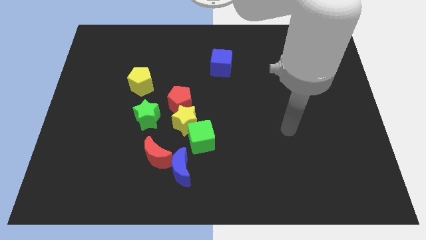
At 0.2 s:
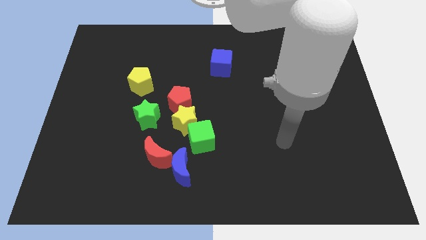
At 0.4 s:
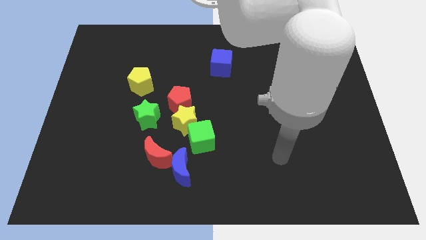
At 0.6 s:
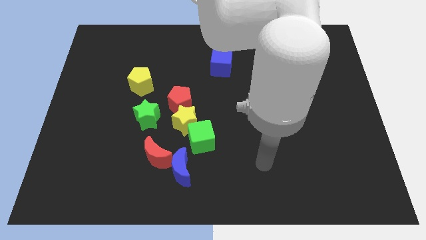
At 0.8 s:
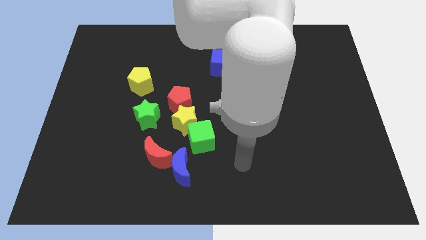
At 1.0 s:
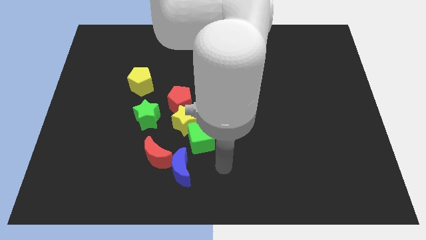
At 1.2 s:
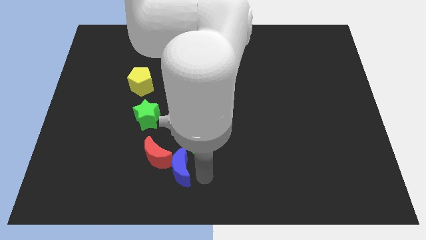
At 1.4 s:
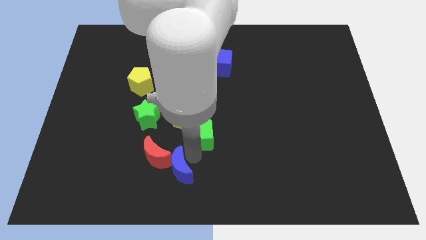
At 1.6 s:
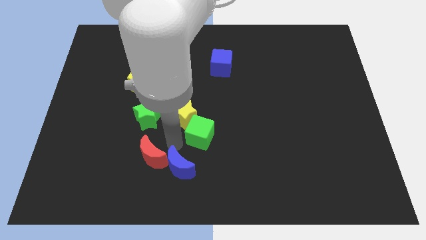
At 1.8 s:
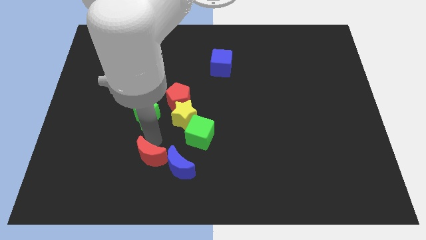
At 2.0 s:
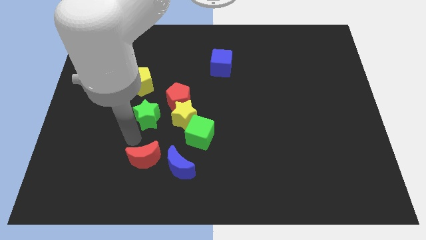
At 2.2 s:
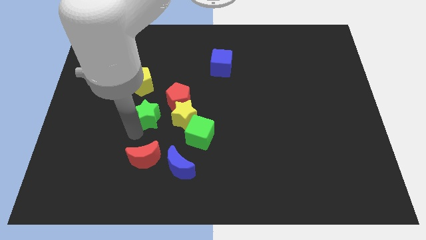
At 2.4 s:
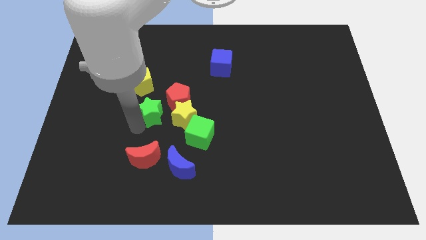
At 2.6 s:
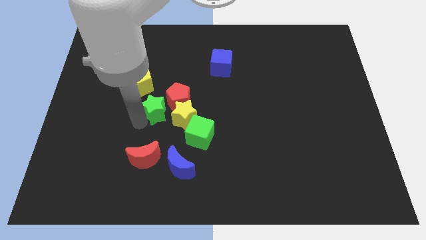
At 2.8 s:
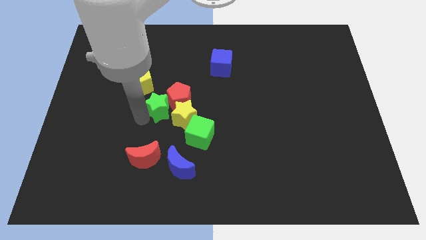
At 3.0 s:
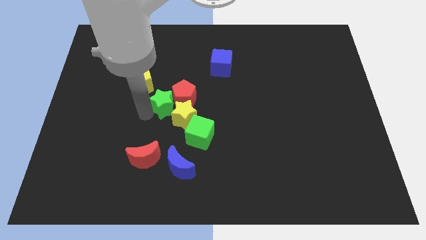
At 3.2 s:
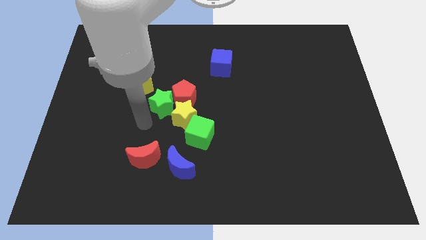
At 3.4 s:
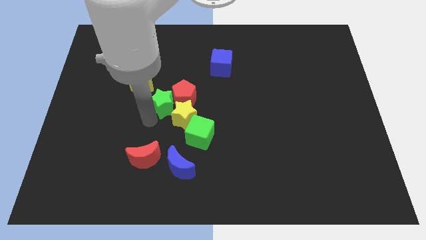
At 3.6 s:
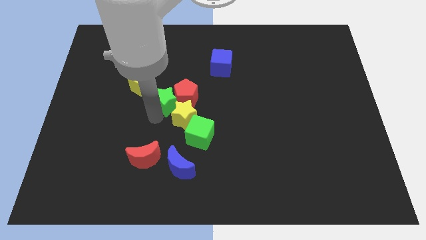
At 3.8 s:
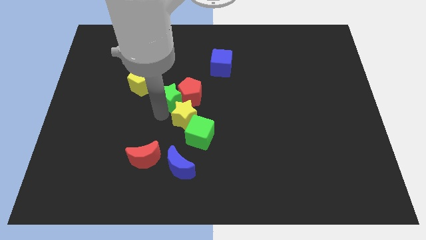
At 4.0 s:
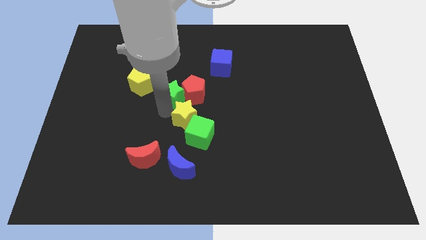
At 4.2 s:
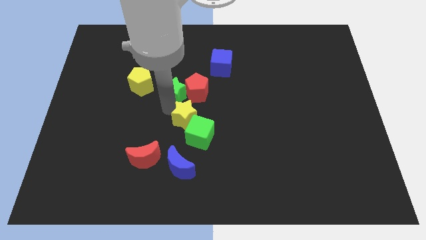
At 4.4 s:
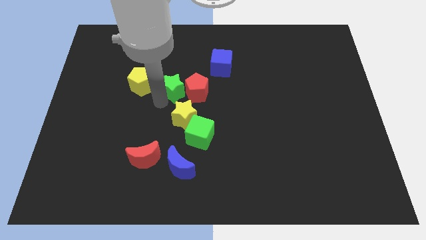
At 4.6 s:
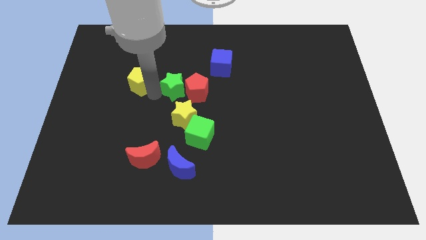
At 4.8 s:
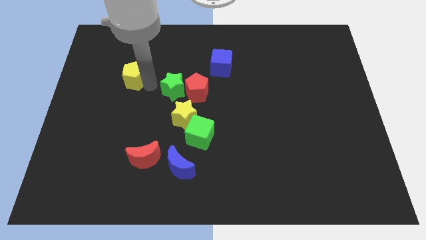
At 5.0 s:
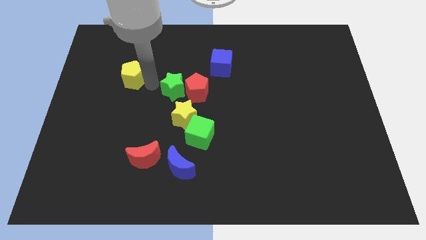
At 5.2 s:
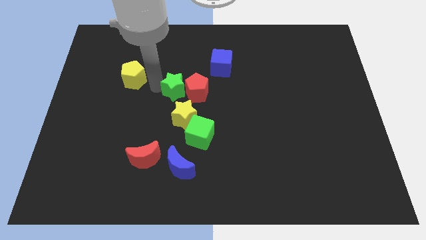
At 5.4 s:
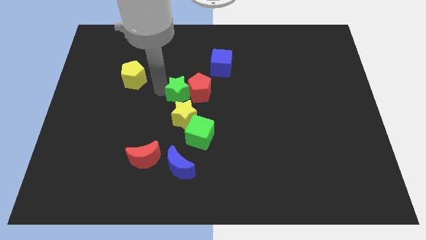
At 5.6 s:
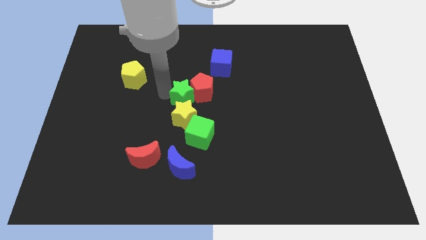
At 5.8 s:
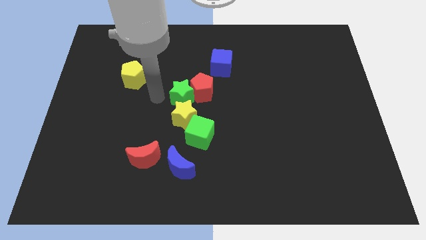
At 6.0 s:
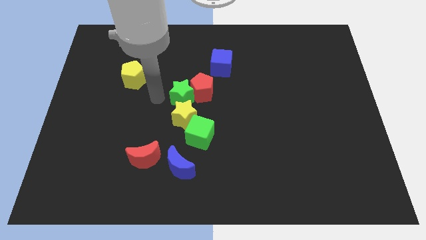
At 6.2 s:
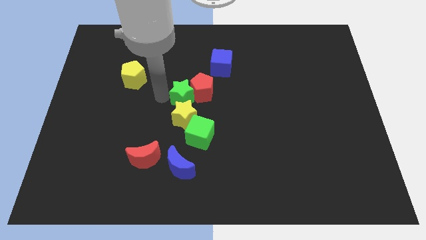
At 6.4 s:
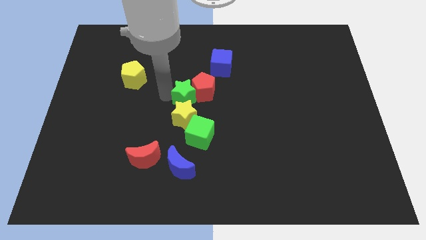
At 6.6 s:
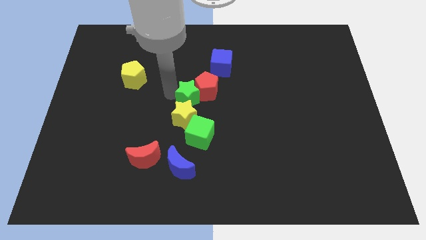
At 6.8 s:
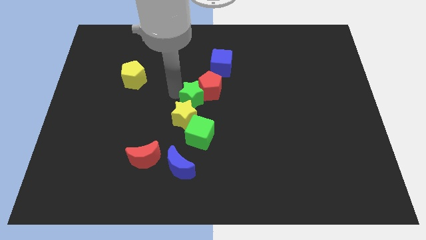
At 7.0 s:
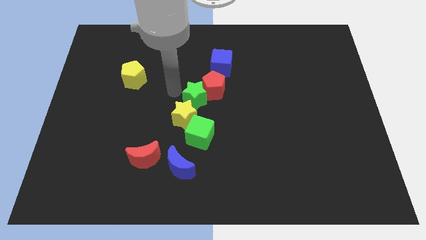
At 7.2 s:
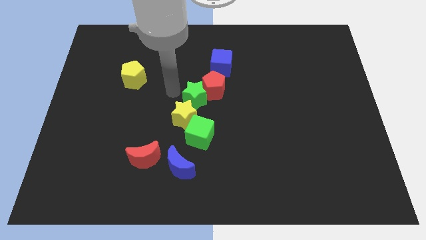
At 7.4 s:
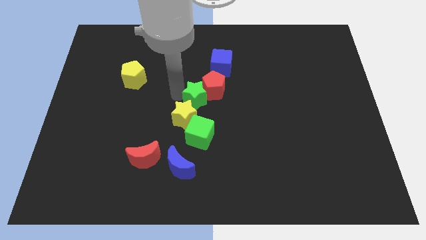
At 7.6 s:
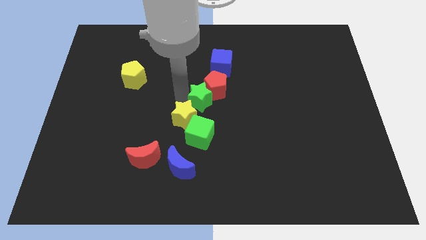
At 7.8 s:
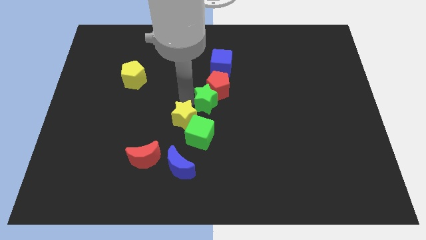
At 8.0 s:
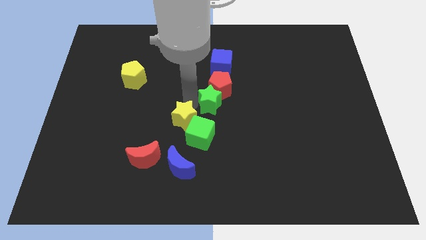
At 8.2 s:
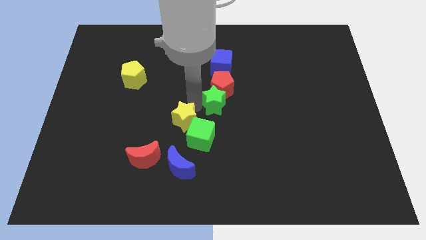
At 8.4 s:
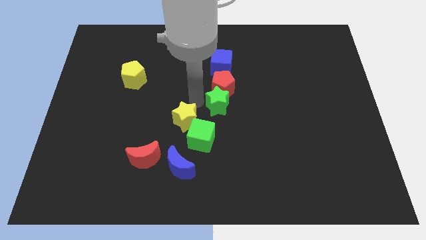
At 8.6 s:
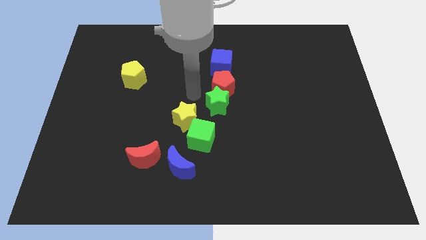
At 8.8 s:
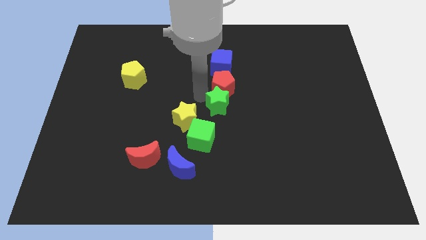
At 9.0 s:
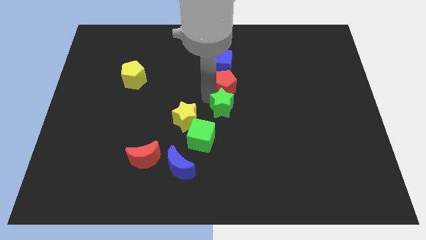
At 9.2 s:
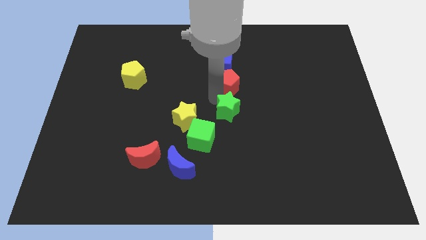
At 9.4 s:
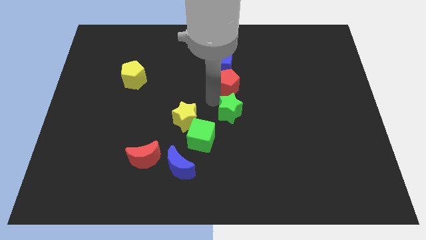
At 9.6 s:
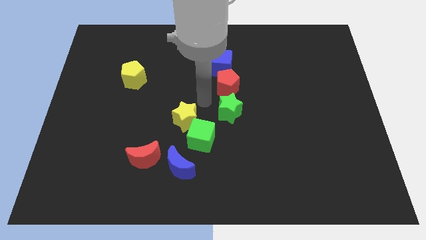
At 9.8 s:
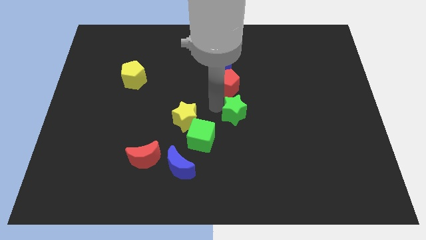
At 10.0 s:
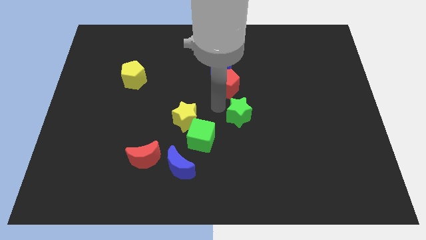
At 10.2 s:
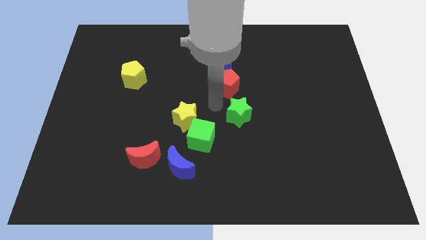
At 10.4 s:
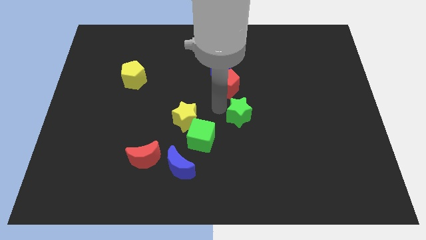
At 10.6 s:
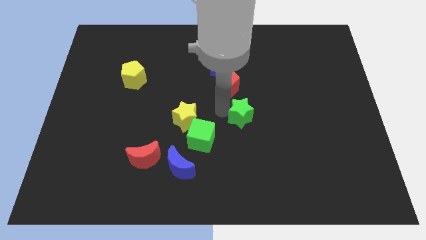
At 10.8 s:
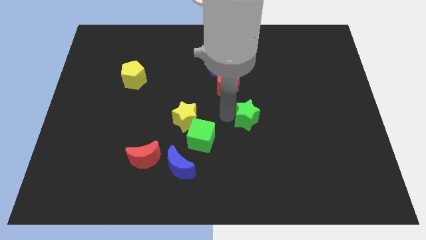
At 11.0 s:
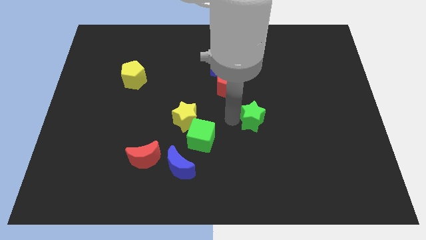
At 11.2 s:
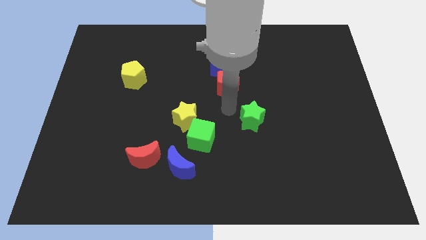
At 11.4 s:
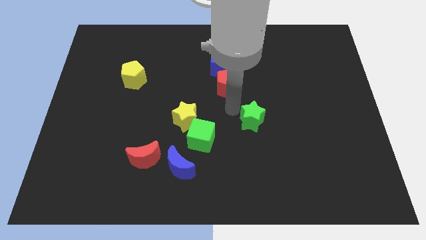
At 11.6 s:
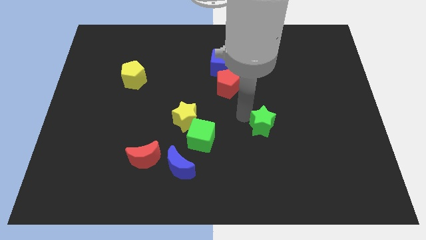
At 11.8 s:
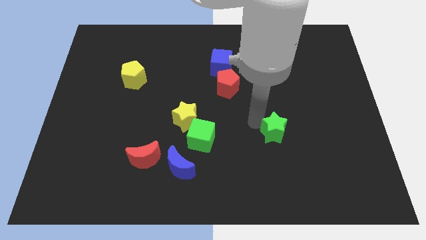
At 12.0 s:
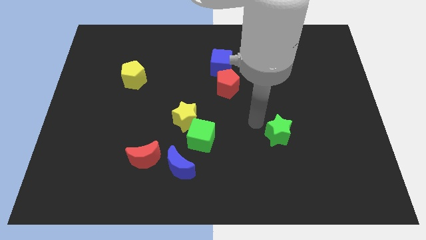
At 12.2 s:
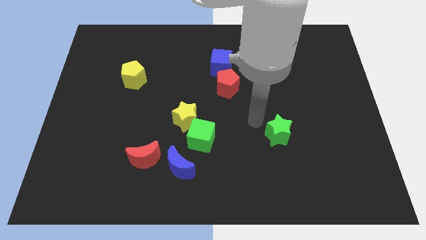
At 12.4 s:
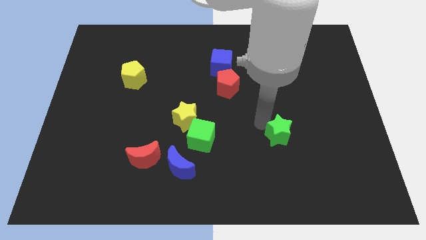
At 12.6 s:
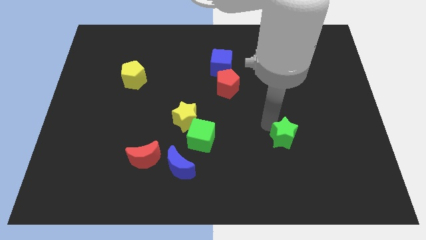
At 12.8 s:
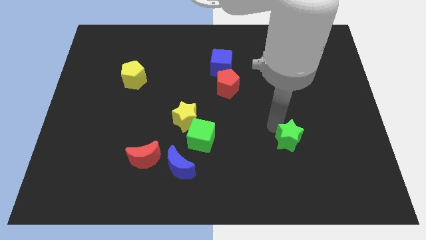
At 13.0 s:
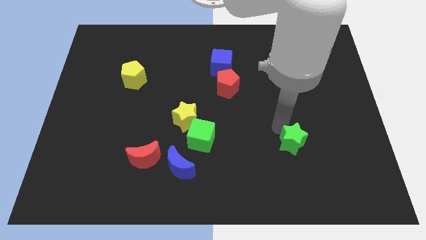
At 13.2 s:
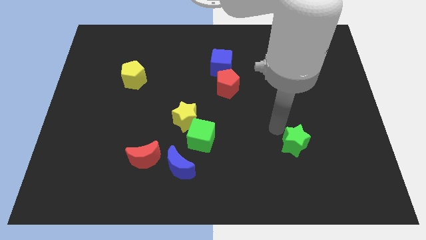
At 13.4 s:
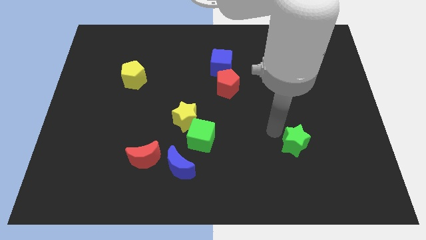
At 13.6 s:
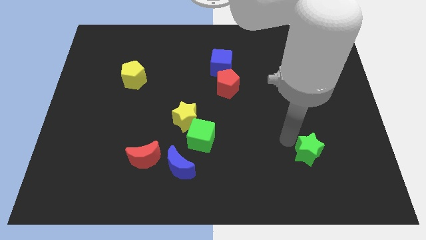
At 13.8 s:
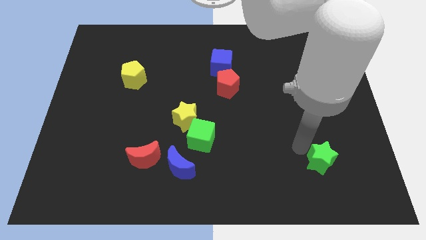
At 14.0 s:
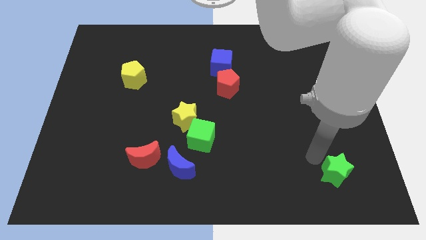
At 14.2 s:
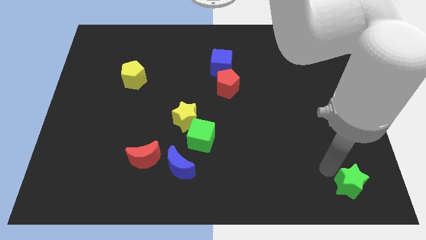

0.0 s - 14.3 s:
put the green star to the bottom right
